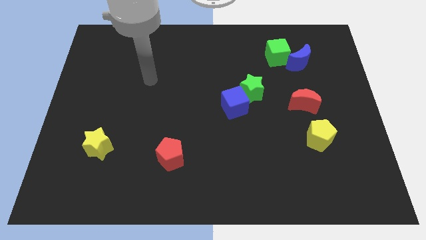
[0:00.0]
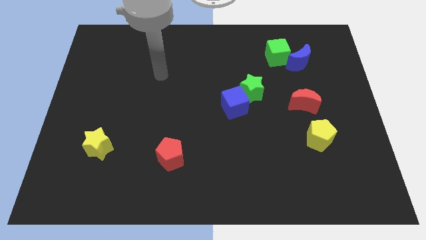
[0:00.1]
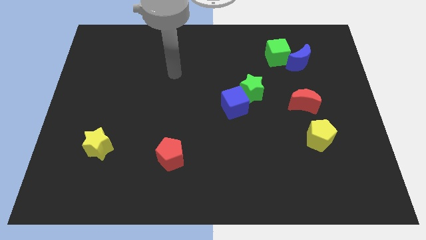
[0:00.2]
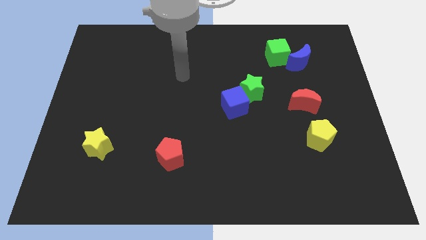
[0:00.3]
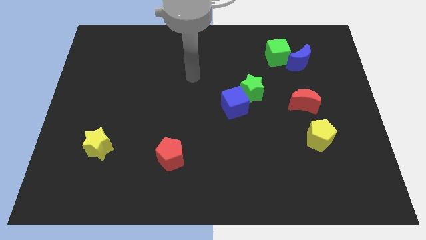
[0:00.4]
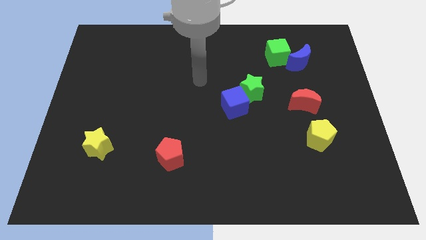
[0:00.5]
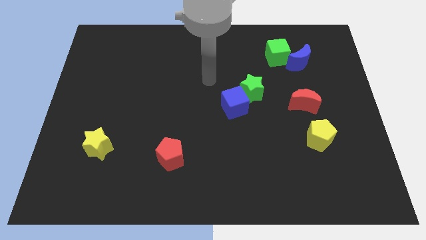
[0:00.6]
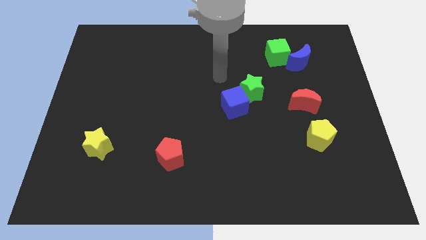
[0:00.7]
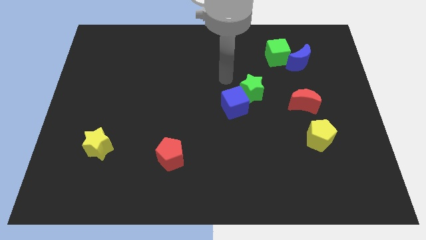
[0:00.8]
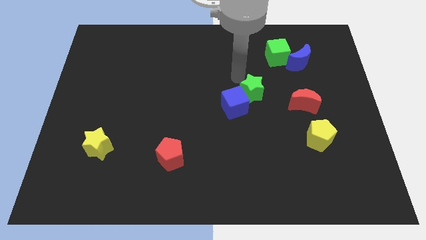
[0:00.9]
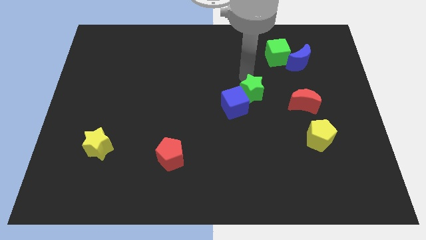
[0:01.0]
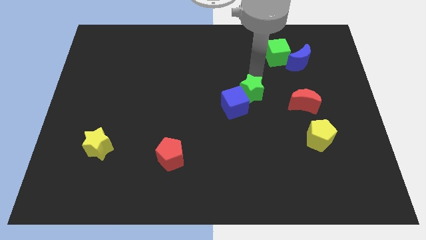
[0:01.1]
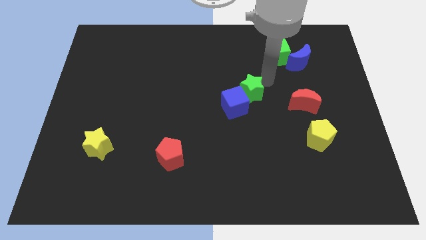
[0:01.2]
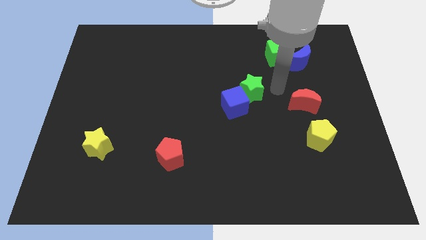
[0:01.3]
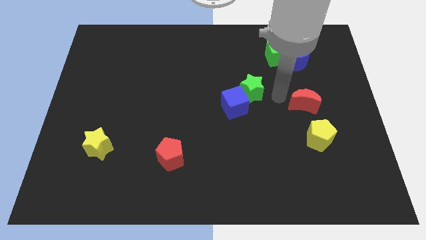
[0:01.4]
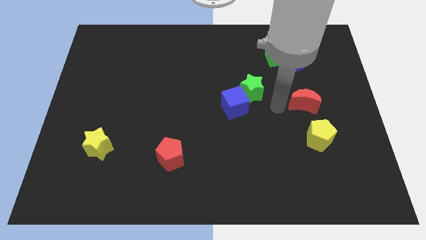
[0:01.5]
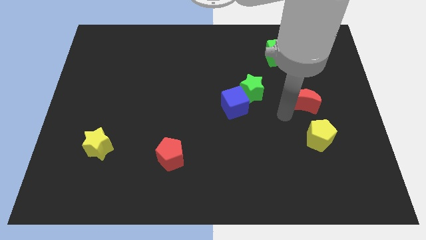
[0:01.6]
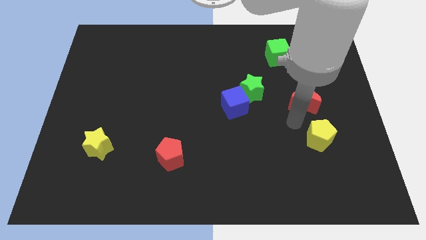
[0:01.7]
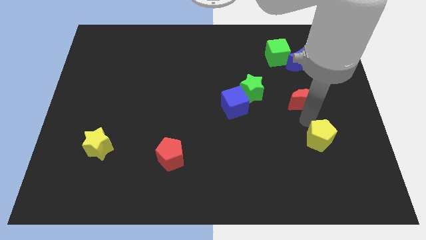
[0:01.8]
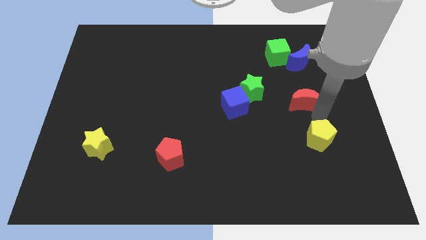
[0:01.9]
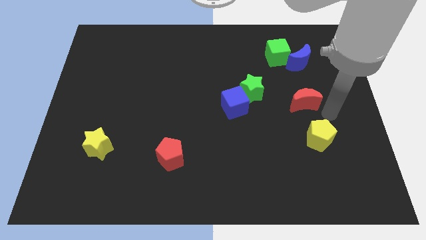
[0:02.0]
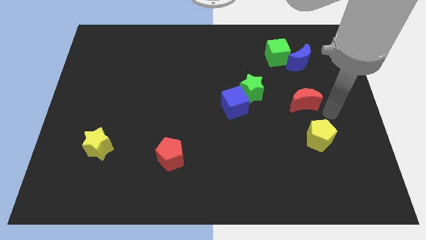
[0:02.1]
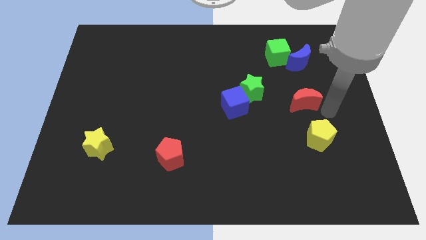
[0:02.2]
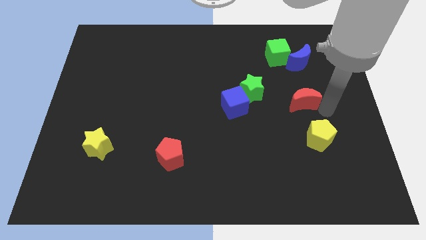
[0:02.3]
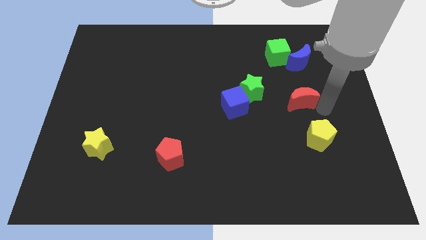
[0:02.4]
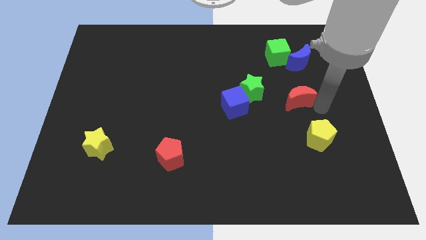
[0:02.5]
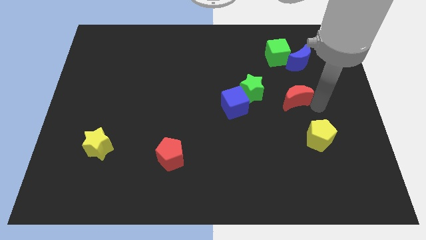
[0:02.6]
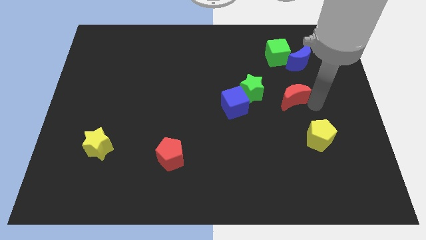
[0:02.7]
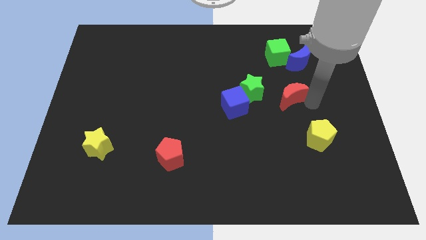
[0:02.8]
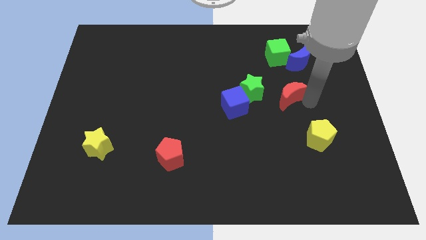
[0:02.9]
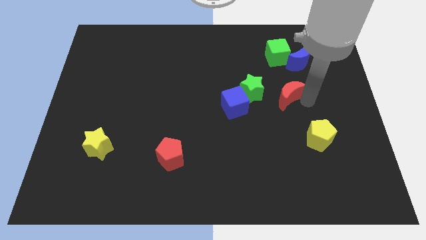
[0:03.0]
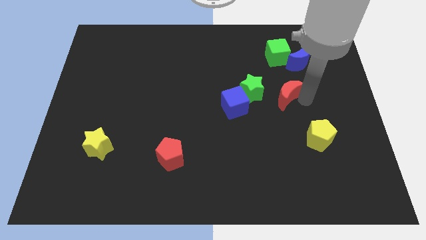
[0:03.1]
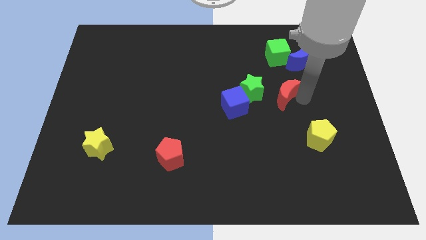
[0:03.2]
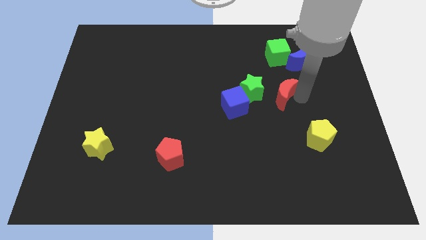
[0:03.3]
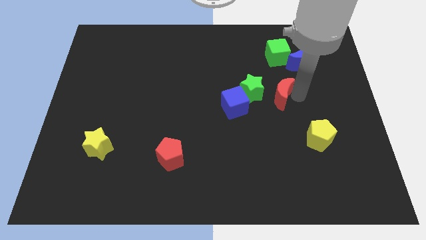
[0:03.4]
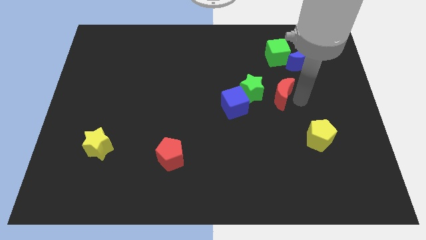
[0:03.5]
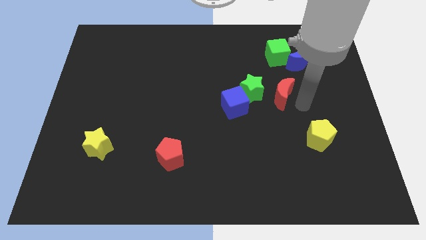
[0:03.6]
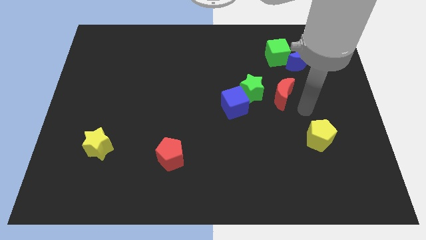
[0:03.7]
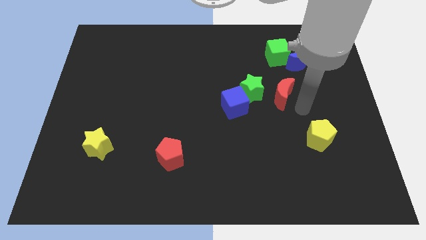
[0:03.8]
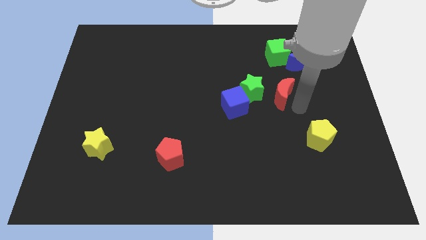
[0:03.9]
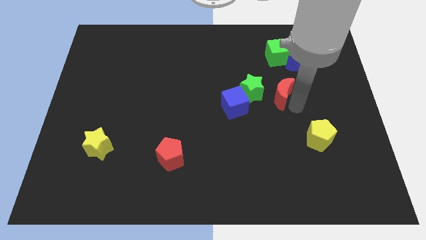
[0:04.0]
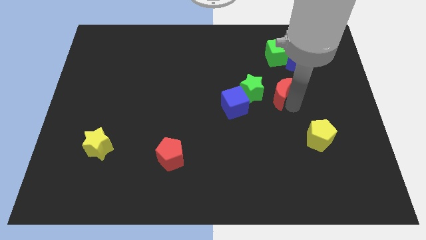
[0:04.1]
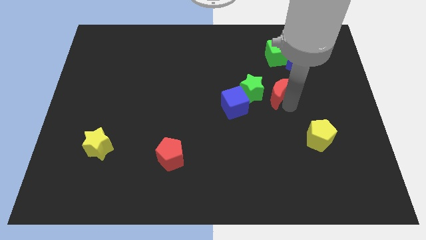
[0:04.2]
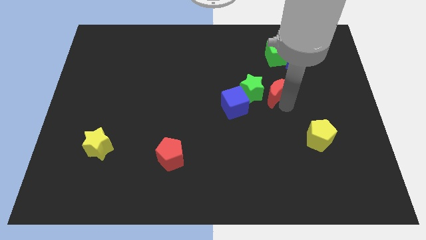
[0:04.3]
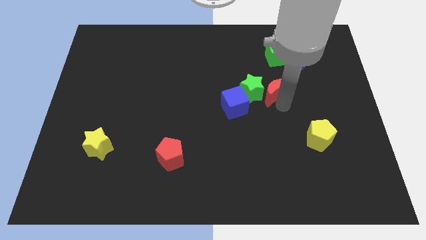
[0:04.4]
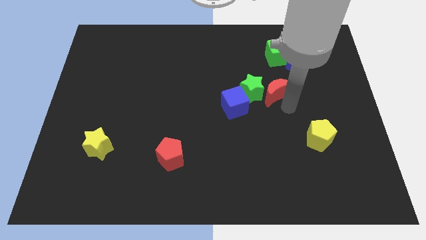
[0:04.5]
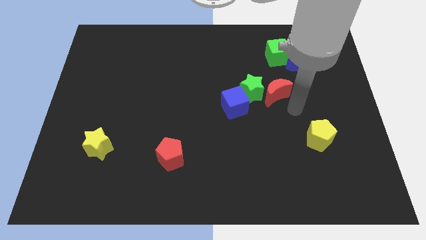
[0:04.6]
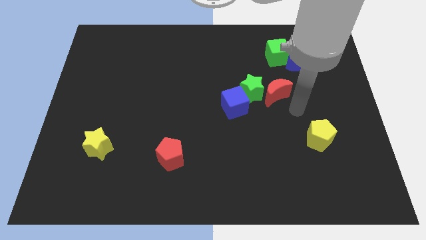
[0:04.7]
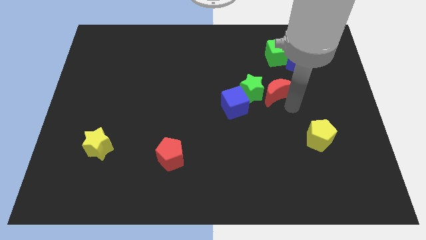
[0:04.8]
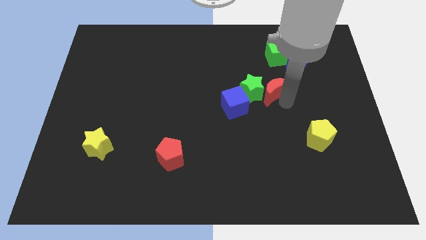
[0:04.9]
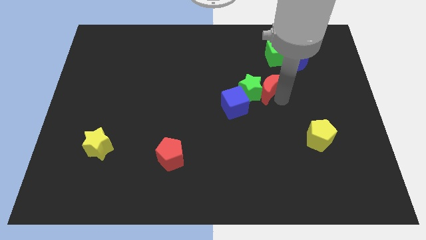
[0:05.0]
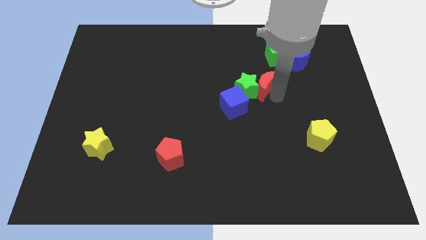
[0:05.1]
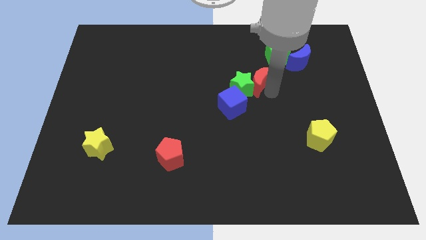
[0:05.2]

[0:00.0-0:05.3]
slide the red moon to the center

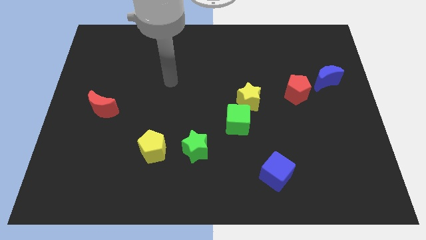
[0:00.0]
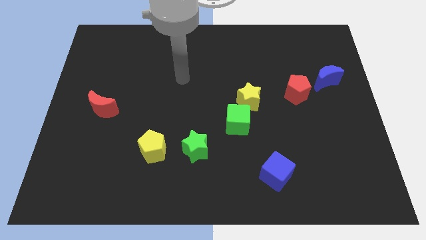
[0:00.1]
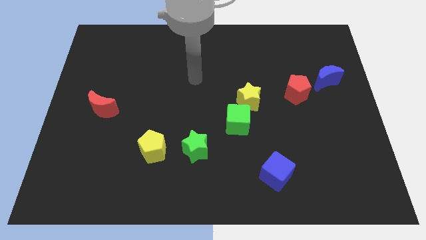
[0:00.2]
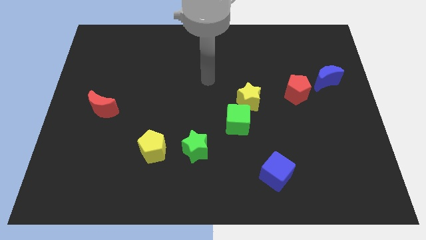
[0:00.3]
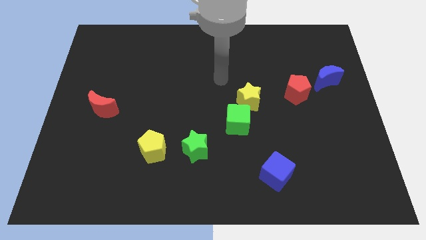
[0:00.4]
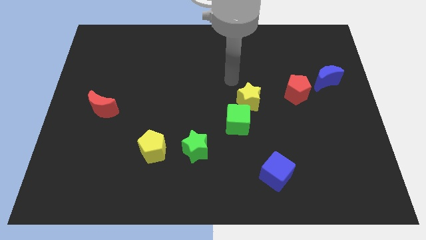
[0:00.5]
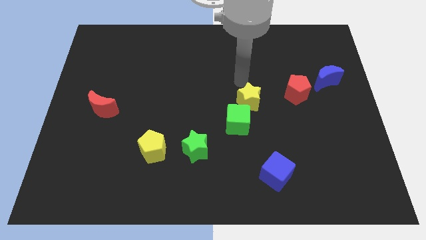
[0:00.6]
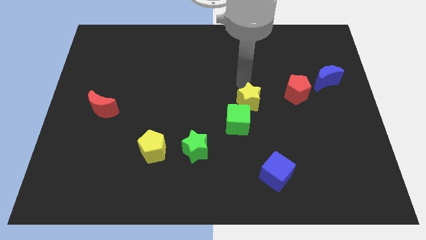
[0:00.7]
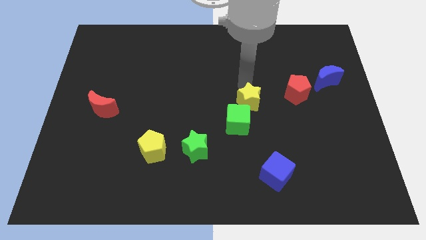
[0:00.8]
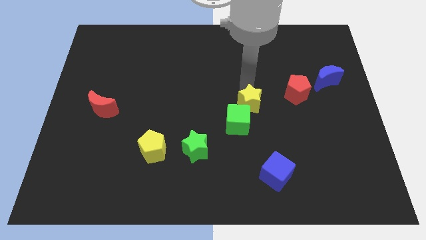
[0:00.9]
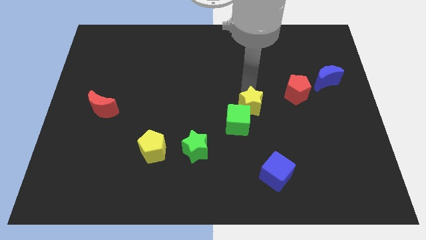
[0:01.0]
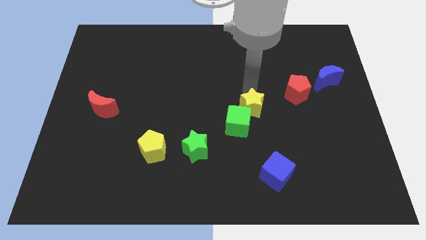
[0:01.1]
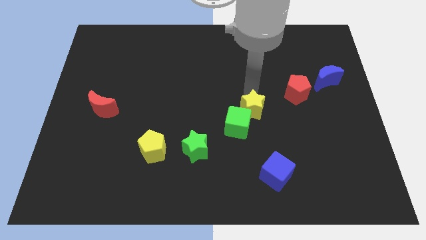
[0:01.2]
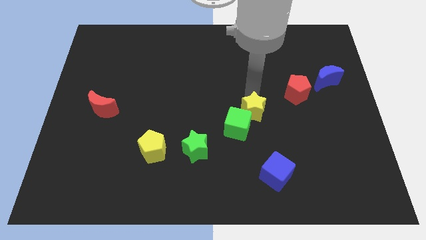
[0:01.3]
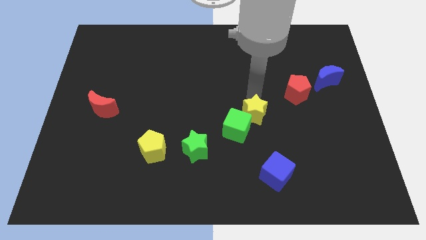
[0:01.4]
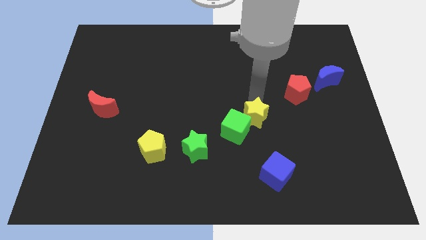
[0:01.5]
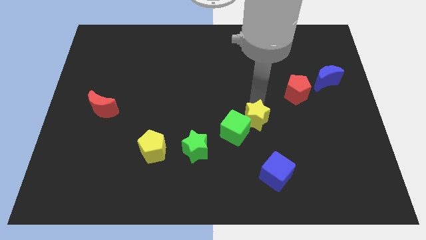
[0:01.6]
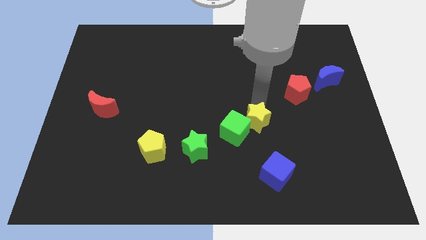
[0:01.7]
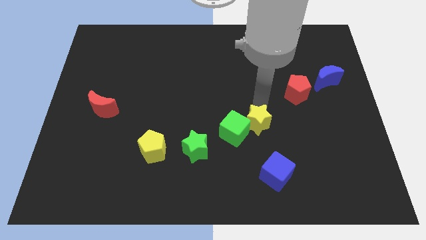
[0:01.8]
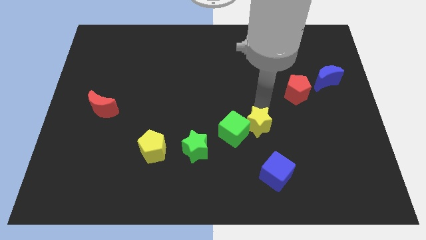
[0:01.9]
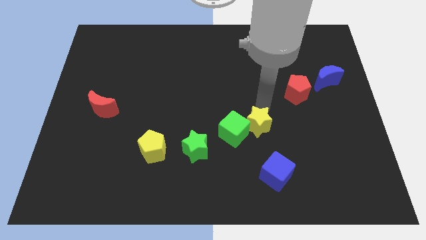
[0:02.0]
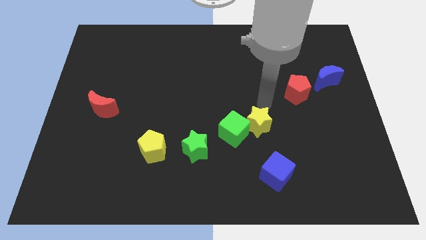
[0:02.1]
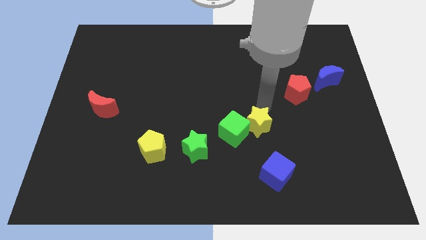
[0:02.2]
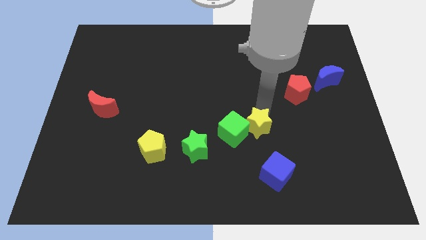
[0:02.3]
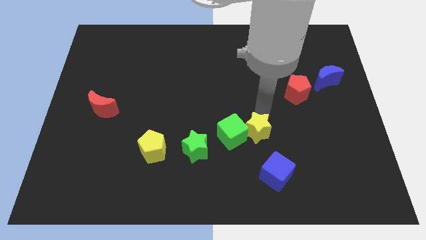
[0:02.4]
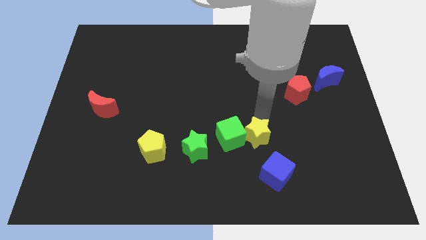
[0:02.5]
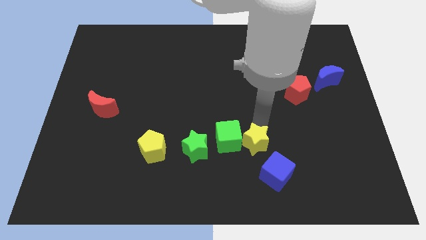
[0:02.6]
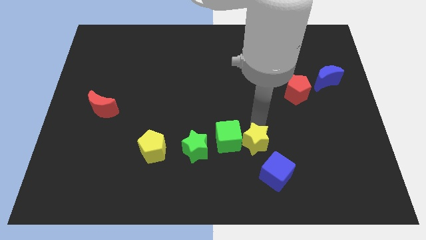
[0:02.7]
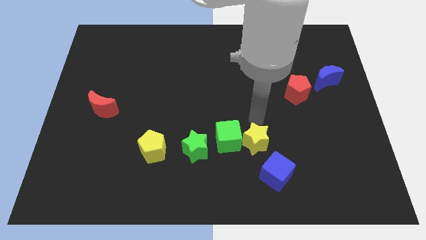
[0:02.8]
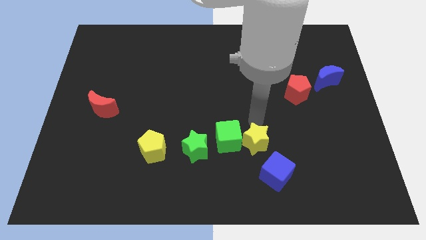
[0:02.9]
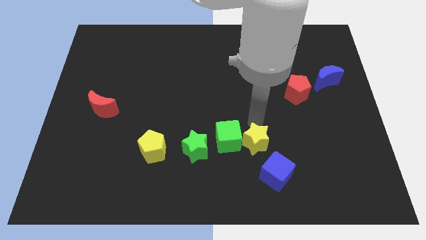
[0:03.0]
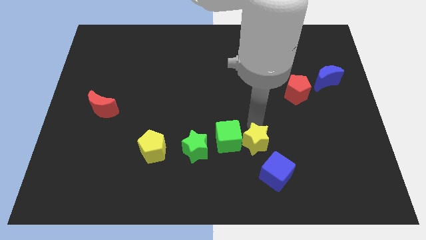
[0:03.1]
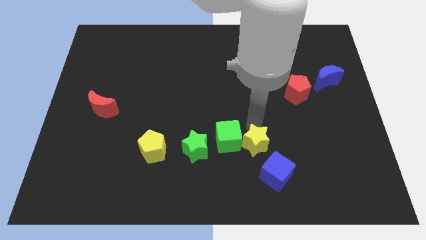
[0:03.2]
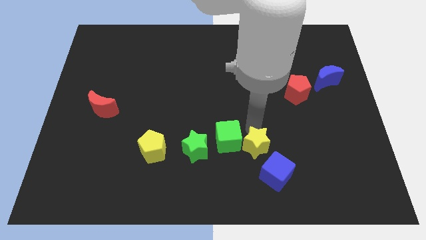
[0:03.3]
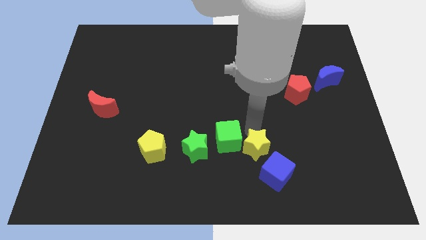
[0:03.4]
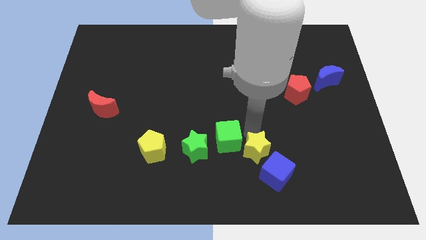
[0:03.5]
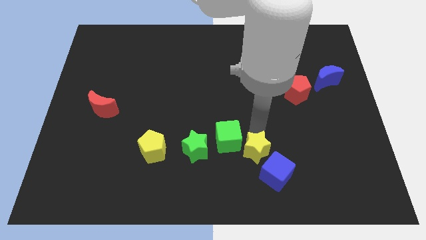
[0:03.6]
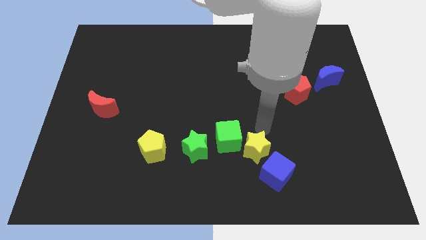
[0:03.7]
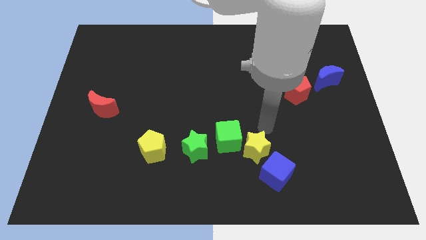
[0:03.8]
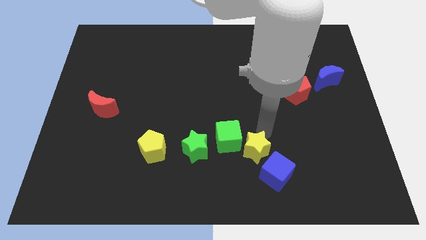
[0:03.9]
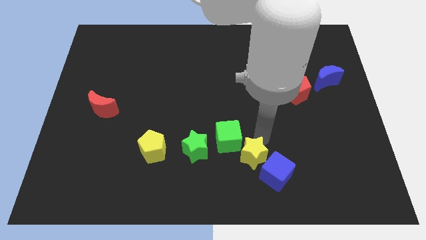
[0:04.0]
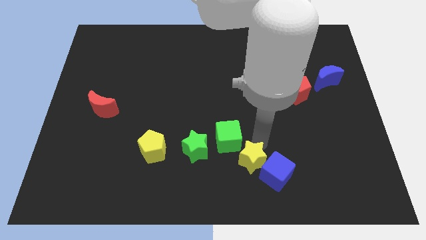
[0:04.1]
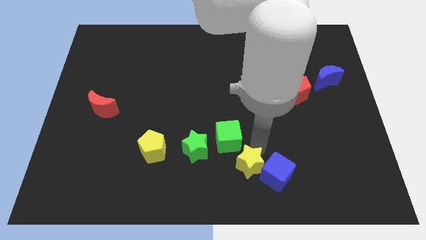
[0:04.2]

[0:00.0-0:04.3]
put the yellow star to the bottom side
